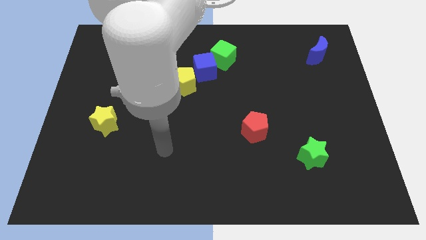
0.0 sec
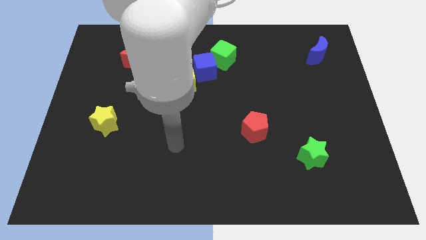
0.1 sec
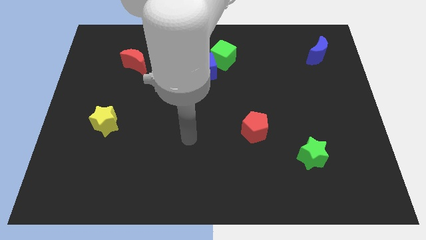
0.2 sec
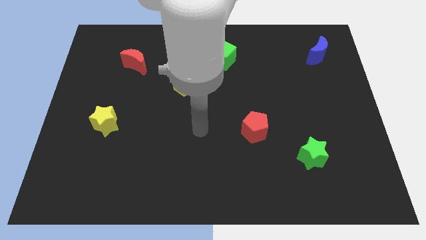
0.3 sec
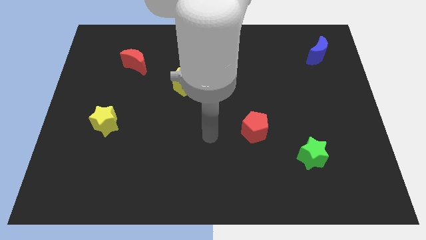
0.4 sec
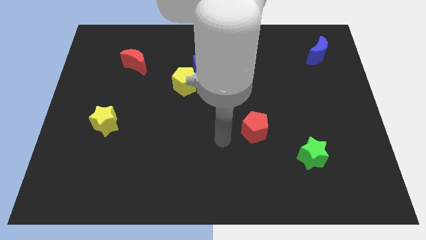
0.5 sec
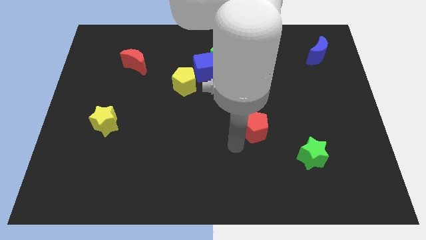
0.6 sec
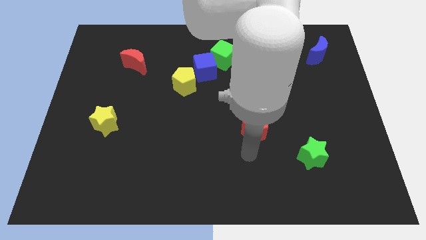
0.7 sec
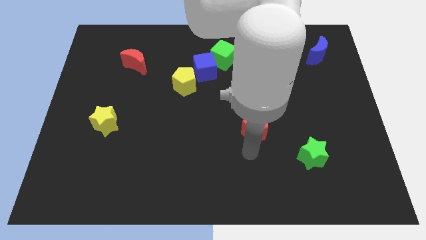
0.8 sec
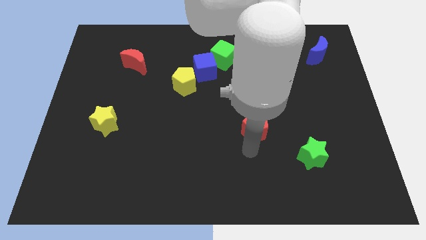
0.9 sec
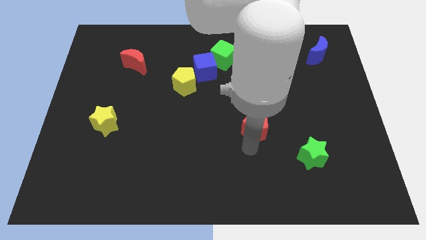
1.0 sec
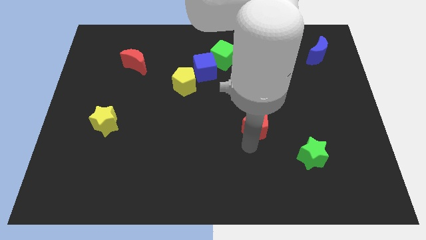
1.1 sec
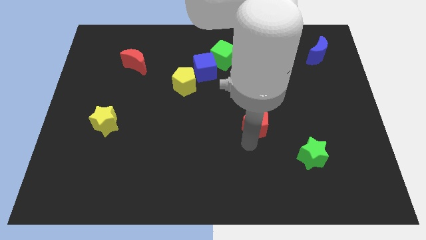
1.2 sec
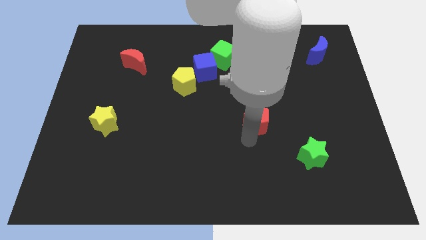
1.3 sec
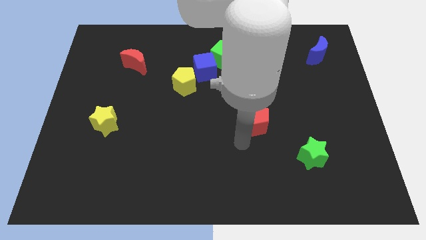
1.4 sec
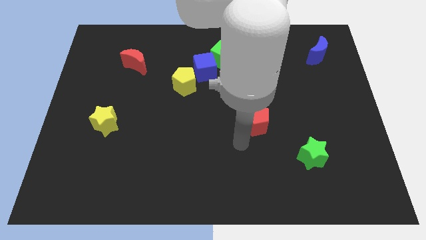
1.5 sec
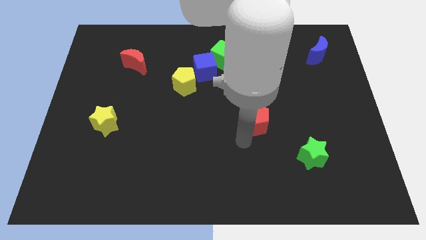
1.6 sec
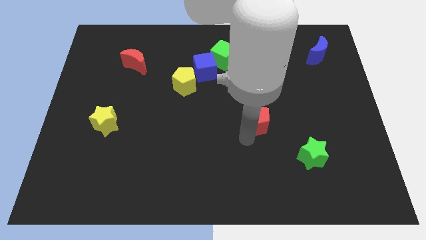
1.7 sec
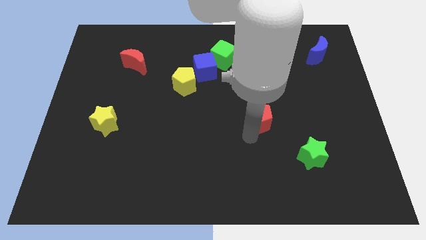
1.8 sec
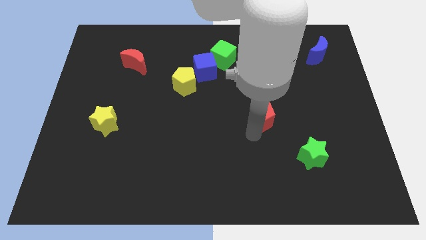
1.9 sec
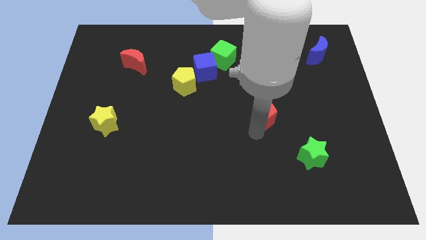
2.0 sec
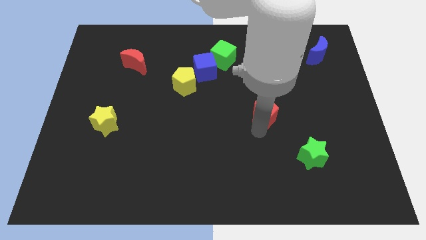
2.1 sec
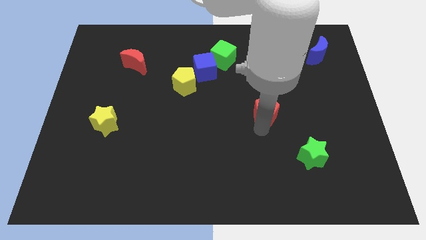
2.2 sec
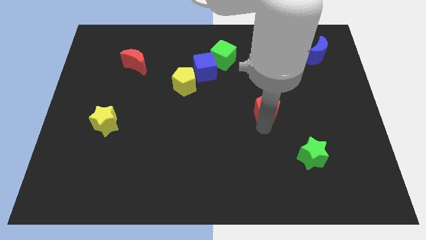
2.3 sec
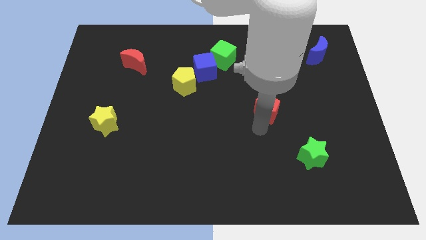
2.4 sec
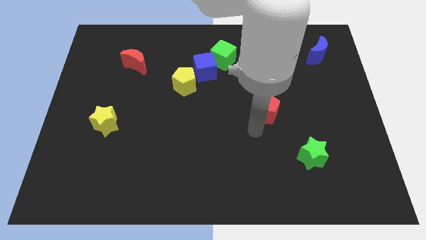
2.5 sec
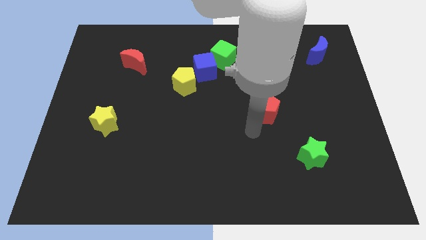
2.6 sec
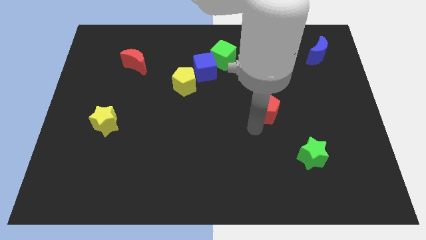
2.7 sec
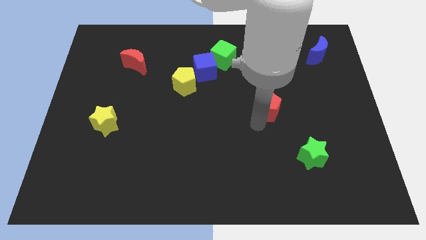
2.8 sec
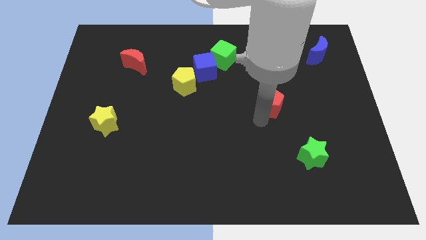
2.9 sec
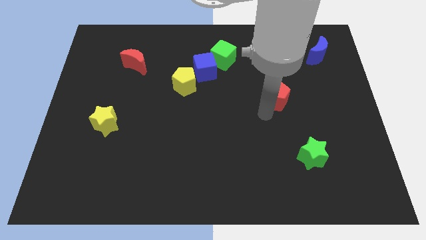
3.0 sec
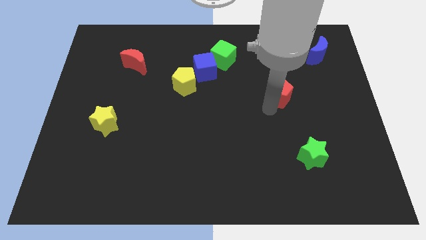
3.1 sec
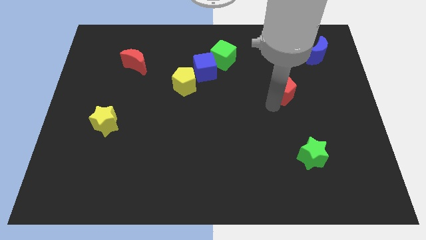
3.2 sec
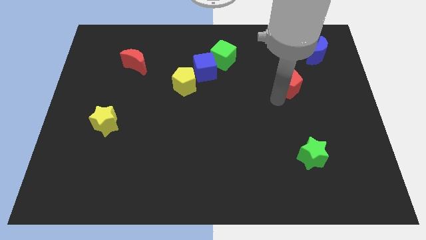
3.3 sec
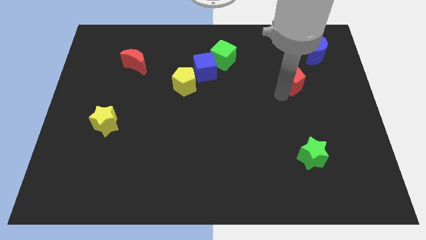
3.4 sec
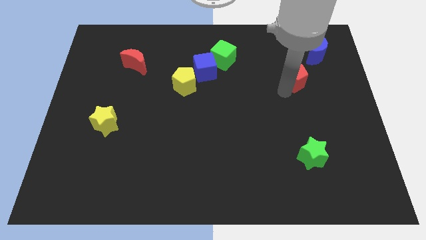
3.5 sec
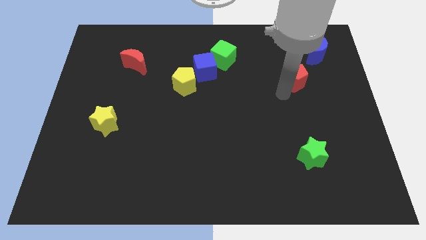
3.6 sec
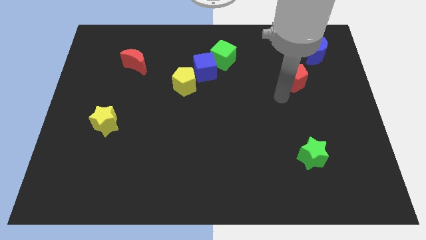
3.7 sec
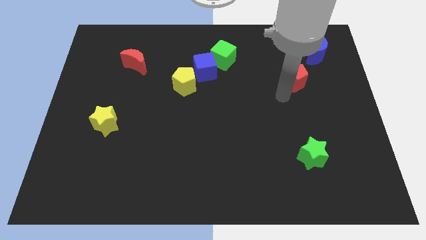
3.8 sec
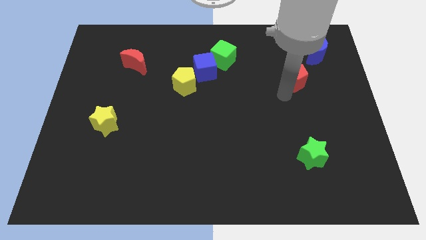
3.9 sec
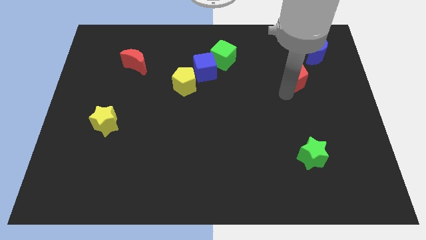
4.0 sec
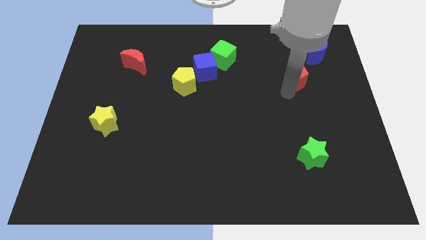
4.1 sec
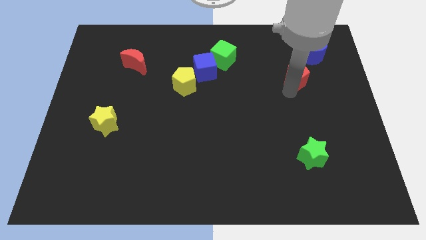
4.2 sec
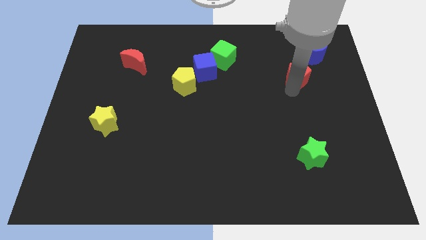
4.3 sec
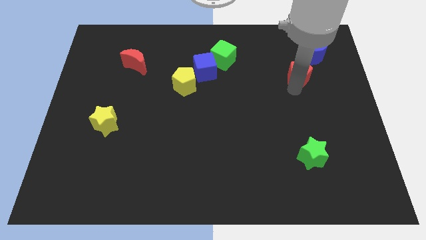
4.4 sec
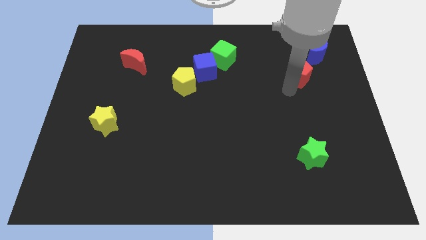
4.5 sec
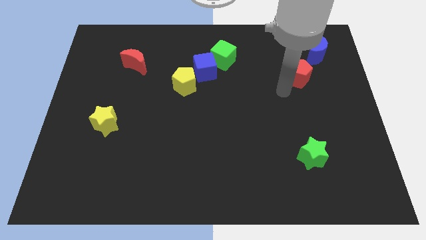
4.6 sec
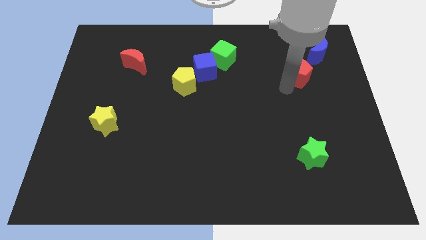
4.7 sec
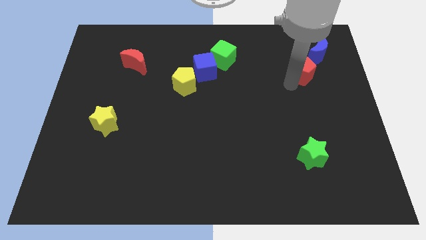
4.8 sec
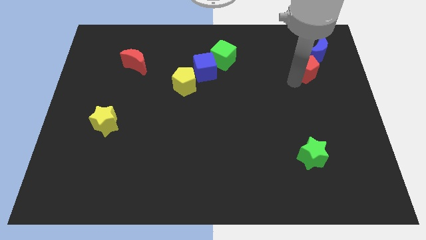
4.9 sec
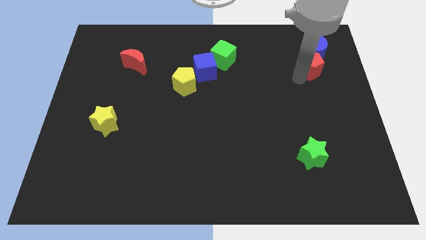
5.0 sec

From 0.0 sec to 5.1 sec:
push the red pentagon to the blue moon

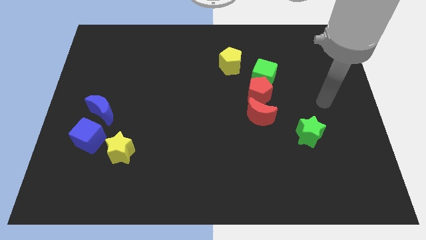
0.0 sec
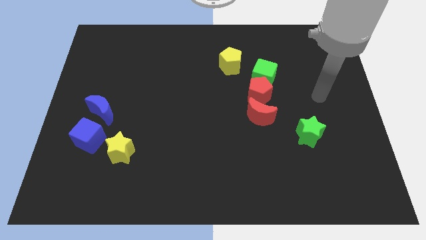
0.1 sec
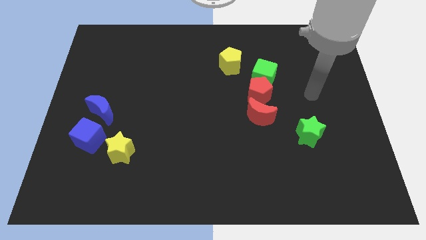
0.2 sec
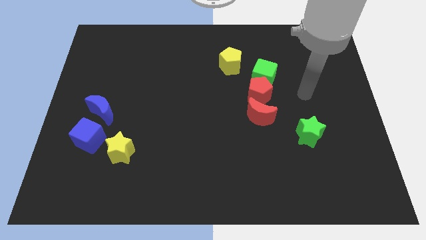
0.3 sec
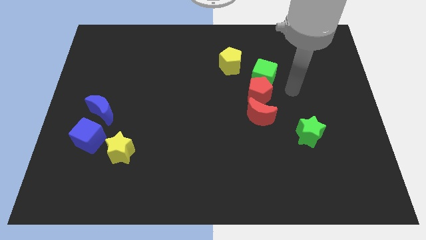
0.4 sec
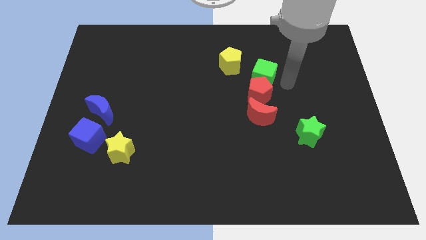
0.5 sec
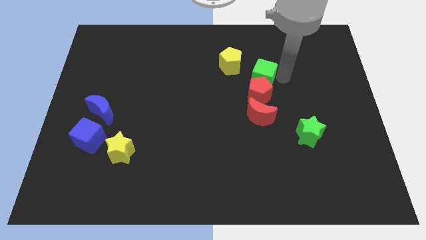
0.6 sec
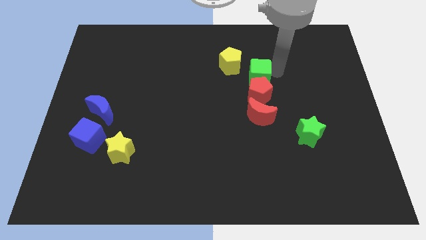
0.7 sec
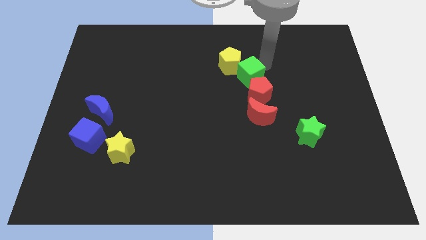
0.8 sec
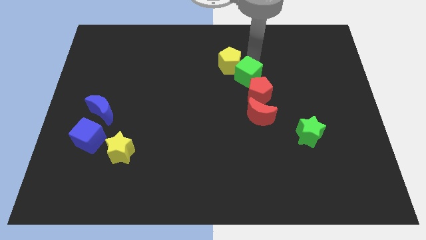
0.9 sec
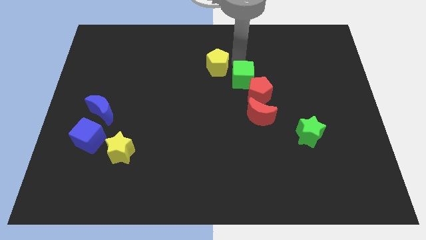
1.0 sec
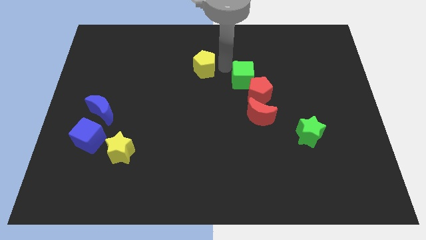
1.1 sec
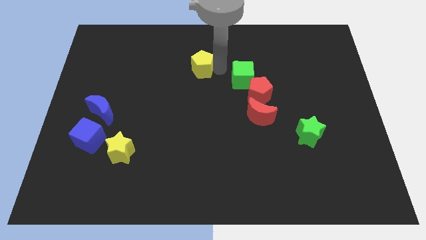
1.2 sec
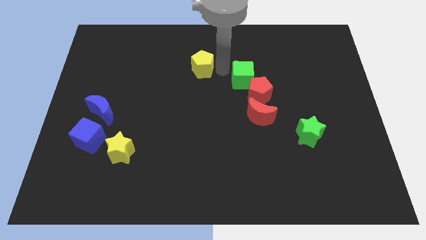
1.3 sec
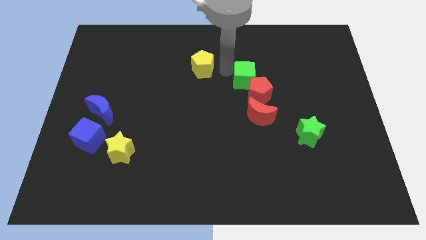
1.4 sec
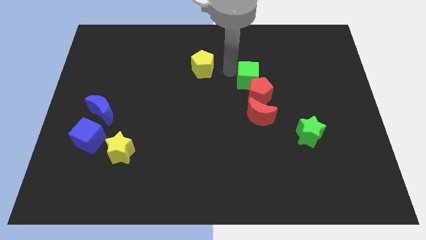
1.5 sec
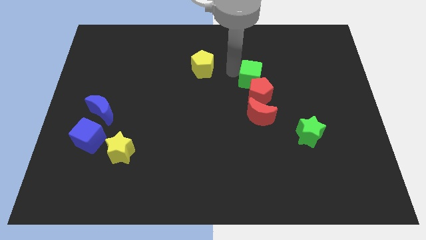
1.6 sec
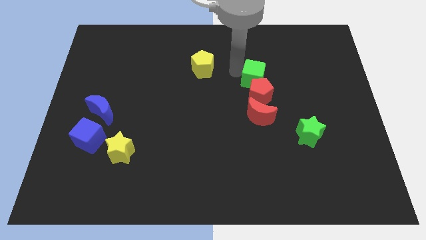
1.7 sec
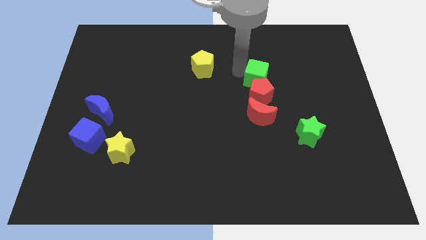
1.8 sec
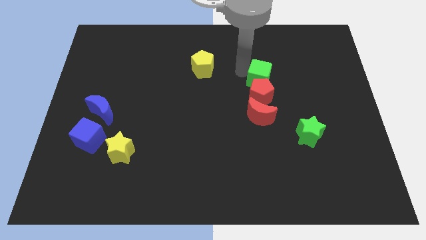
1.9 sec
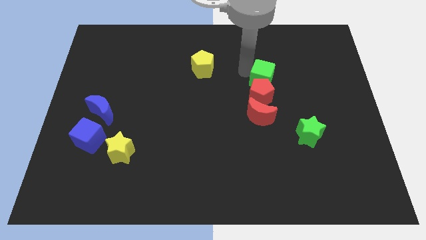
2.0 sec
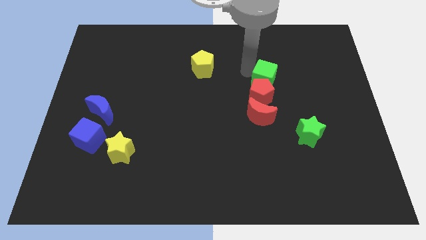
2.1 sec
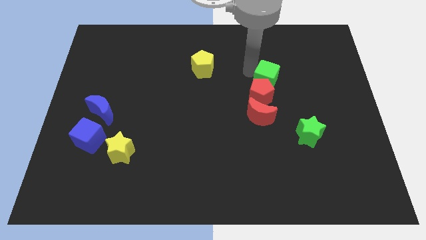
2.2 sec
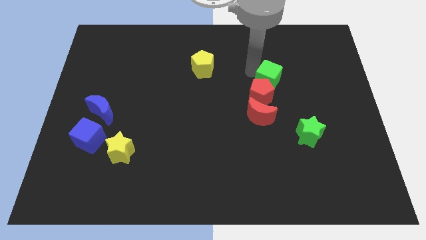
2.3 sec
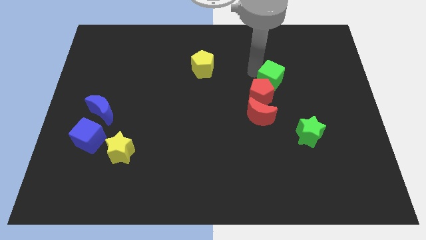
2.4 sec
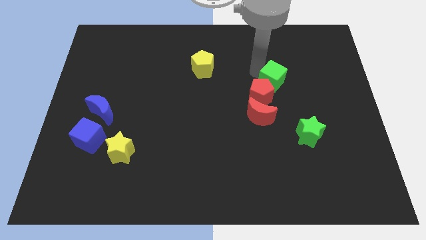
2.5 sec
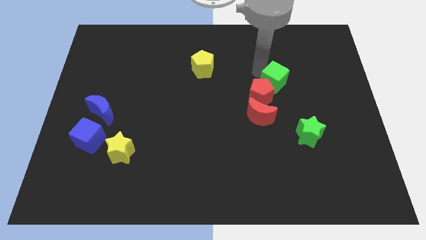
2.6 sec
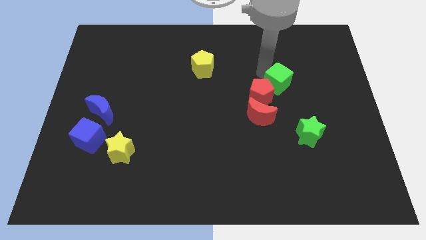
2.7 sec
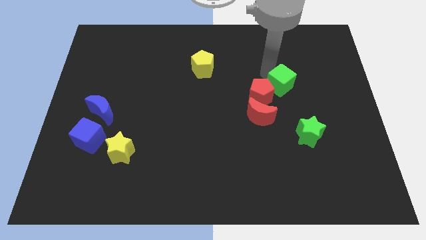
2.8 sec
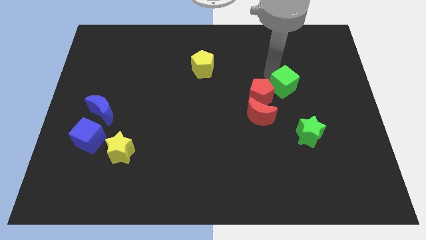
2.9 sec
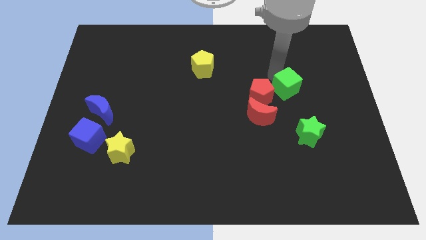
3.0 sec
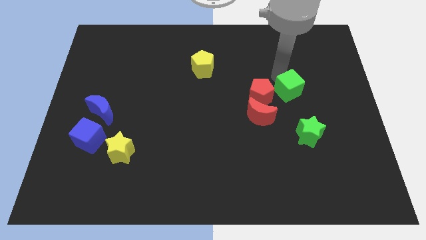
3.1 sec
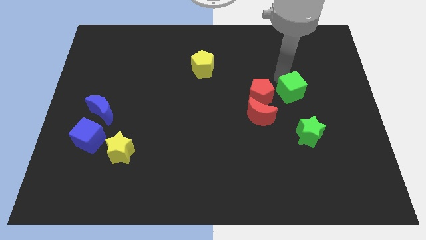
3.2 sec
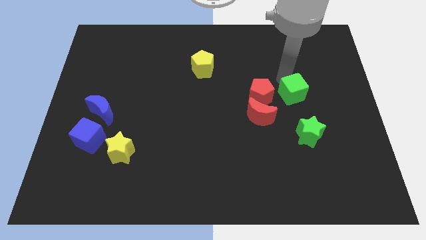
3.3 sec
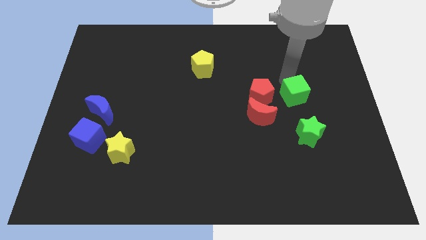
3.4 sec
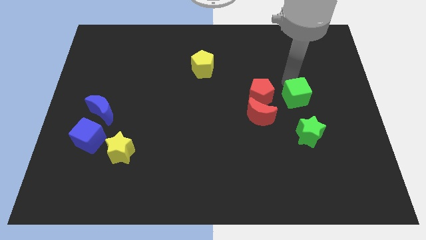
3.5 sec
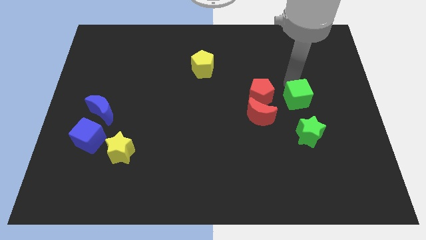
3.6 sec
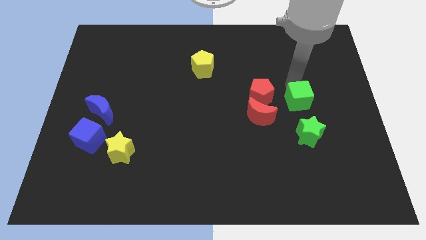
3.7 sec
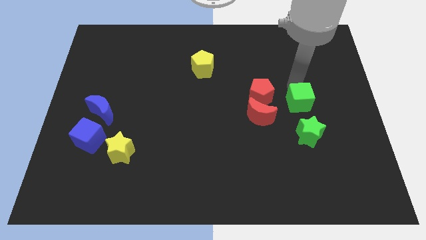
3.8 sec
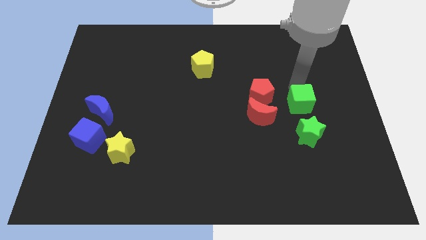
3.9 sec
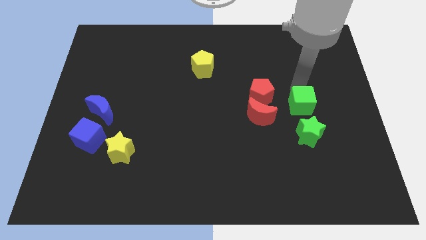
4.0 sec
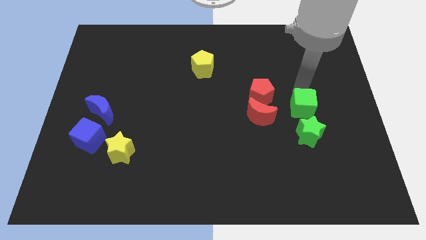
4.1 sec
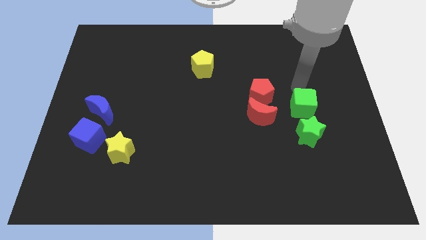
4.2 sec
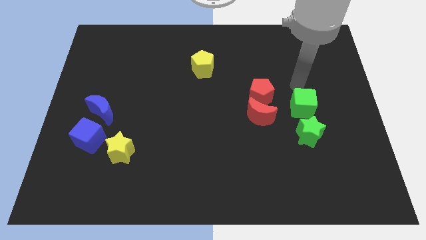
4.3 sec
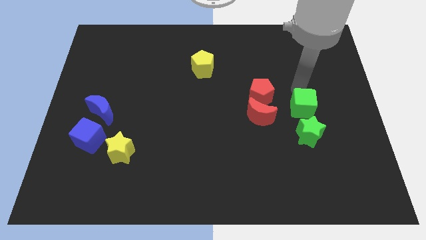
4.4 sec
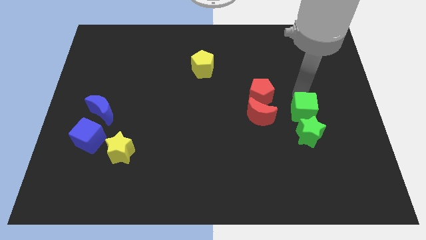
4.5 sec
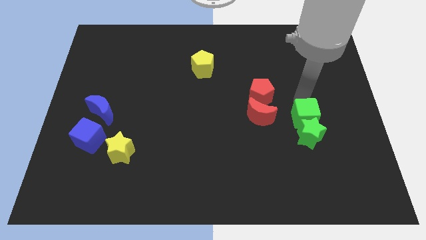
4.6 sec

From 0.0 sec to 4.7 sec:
slide the green cube towards the green star
